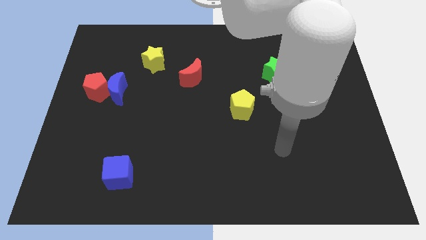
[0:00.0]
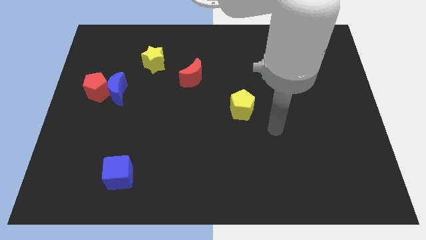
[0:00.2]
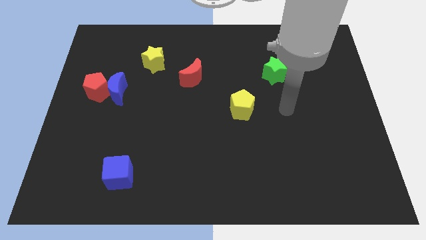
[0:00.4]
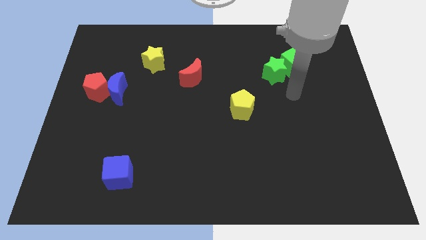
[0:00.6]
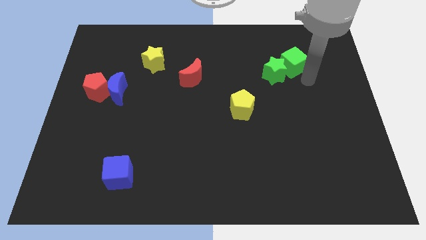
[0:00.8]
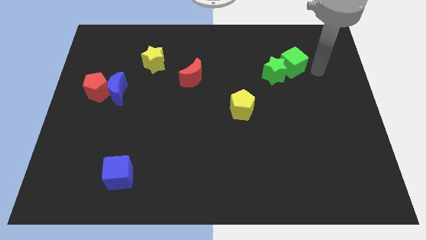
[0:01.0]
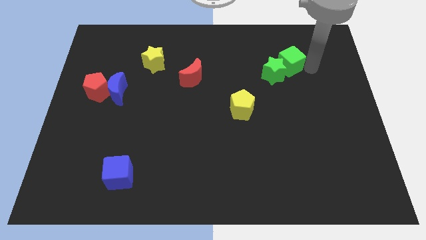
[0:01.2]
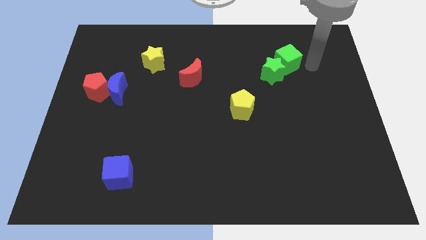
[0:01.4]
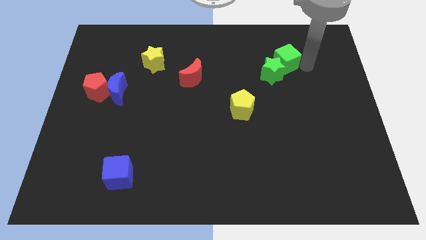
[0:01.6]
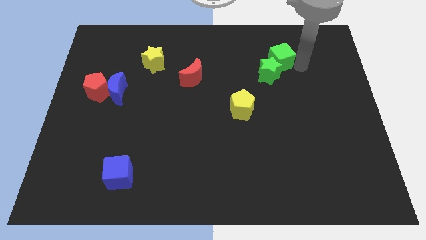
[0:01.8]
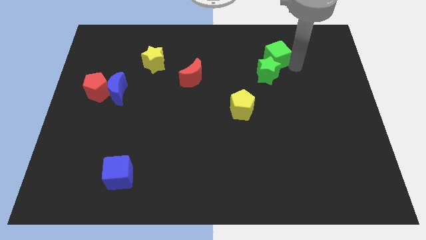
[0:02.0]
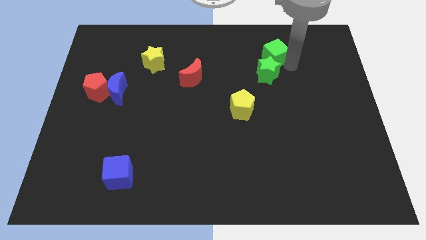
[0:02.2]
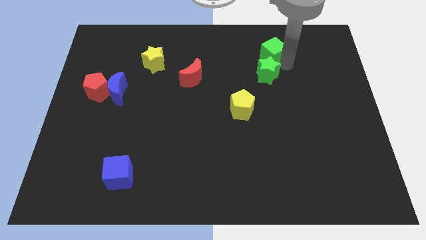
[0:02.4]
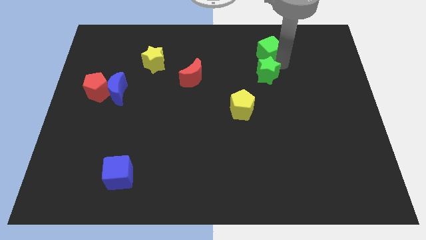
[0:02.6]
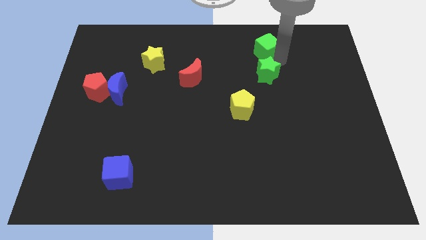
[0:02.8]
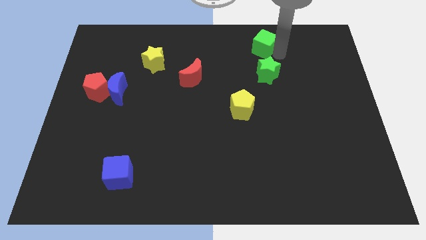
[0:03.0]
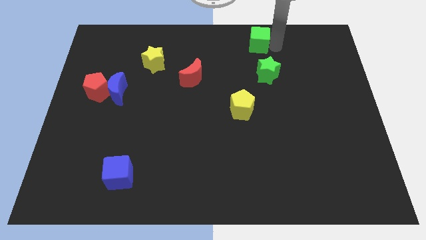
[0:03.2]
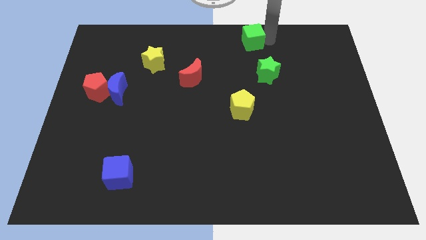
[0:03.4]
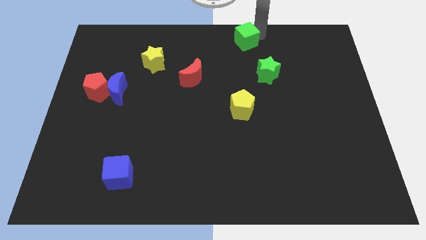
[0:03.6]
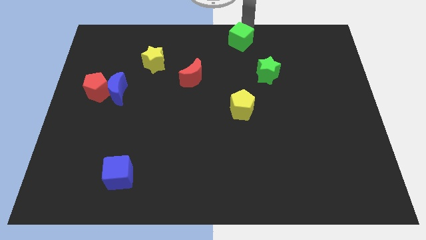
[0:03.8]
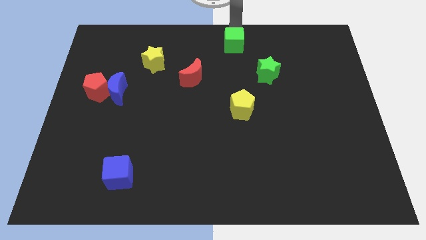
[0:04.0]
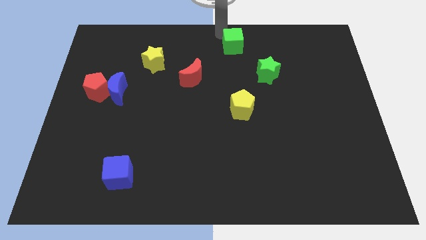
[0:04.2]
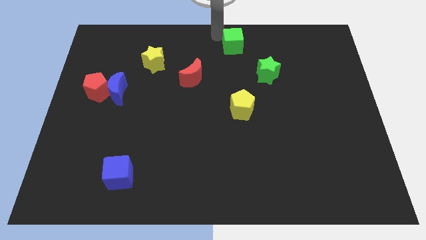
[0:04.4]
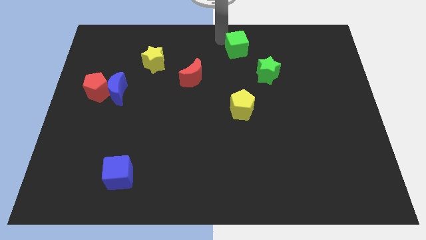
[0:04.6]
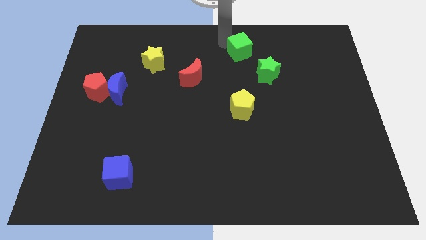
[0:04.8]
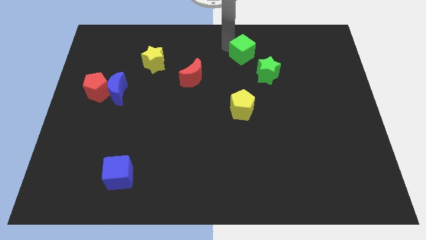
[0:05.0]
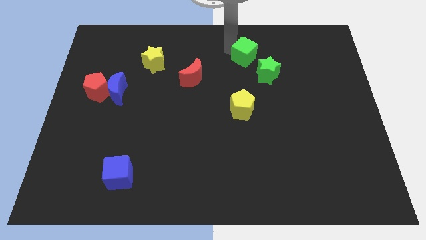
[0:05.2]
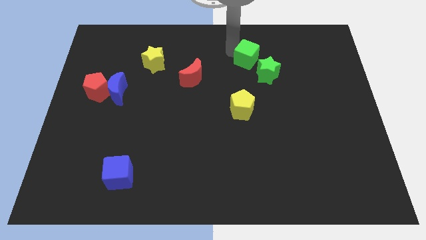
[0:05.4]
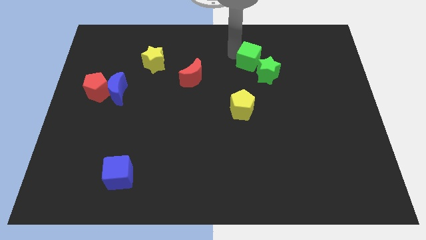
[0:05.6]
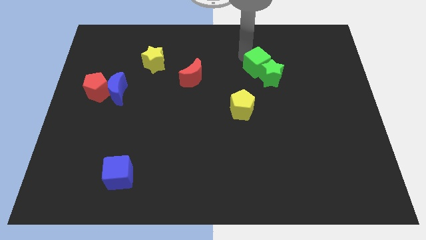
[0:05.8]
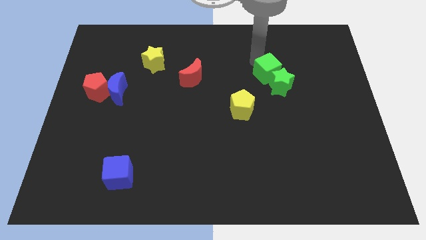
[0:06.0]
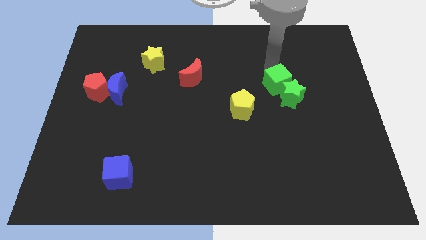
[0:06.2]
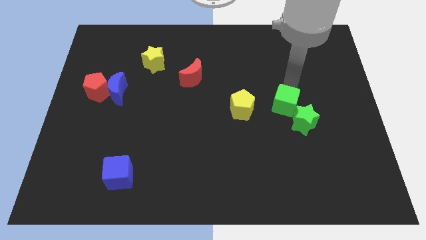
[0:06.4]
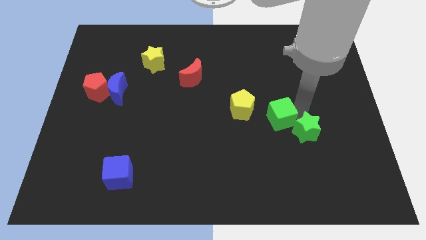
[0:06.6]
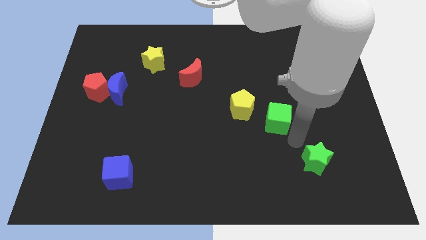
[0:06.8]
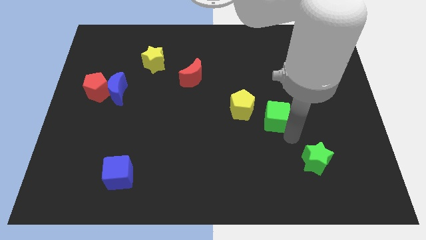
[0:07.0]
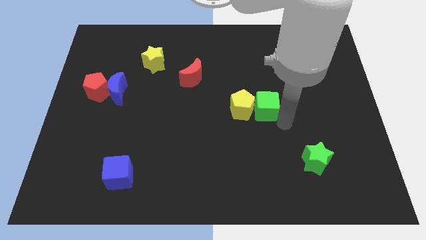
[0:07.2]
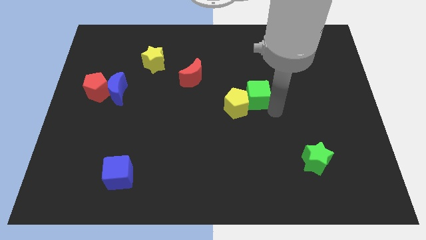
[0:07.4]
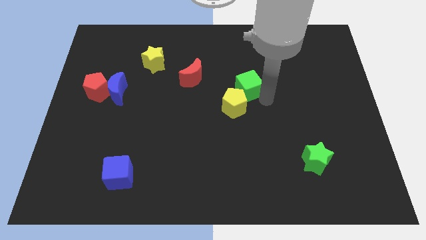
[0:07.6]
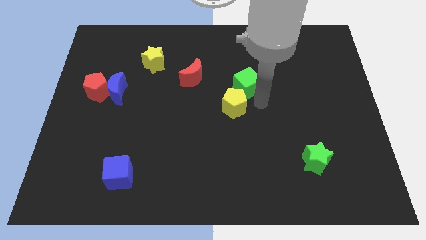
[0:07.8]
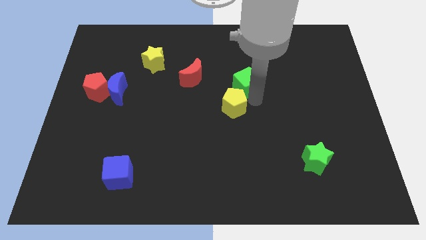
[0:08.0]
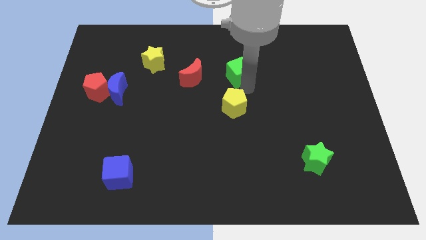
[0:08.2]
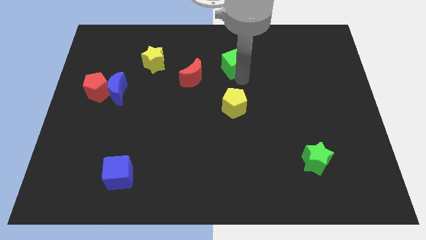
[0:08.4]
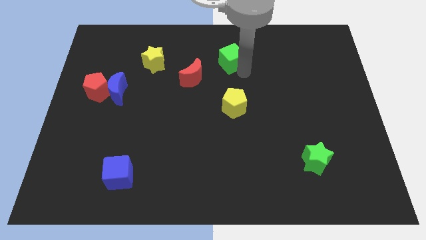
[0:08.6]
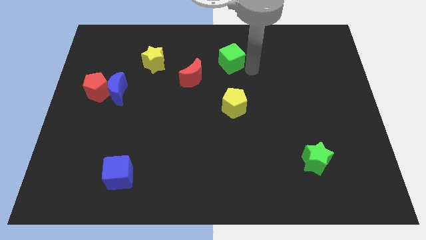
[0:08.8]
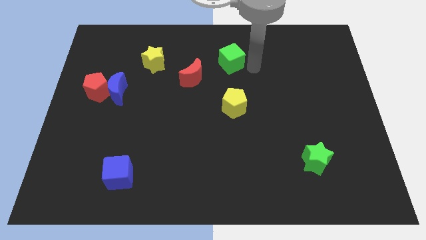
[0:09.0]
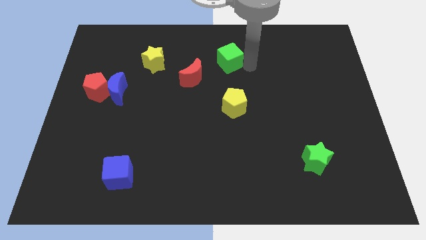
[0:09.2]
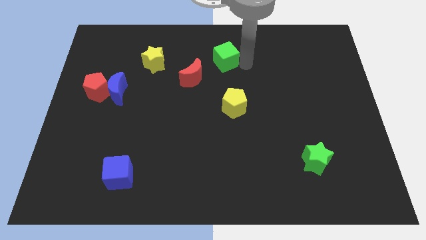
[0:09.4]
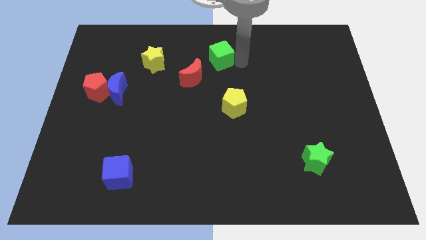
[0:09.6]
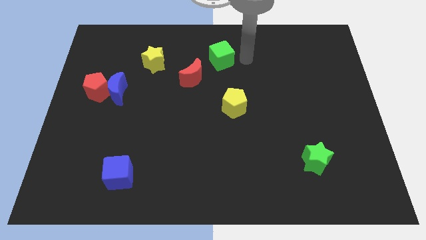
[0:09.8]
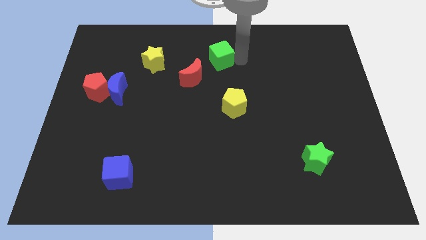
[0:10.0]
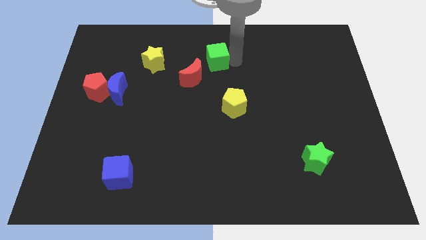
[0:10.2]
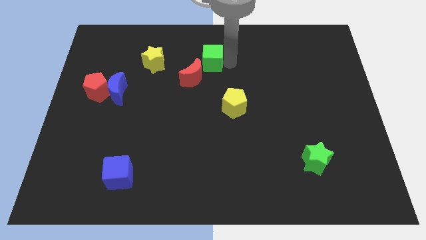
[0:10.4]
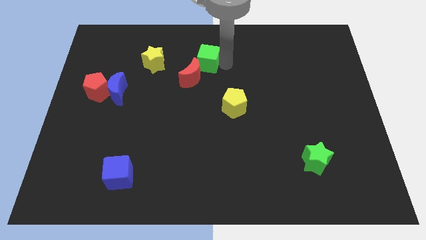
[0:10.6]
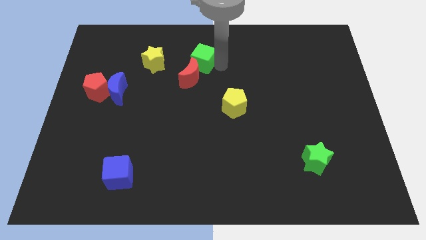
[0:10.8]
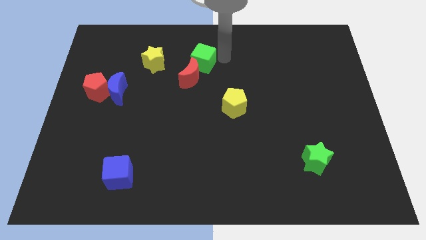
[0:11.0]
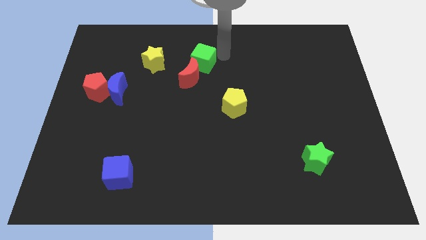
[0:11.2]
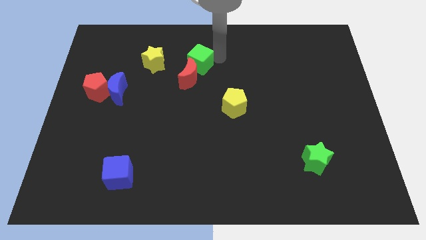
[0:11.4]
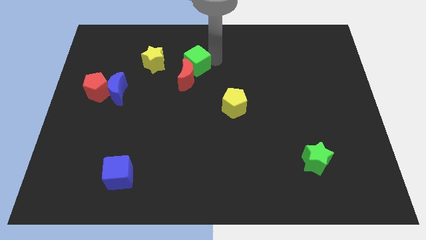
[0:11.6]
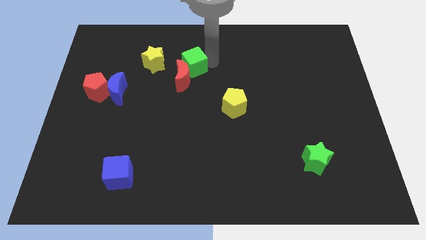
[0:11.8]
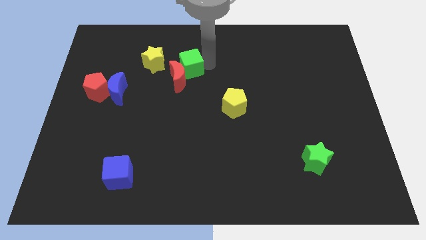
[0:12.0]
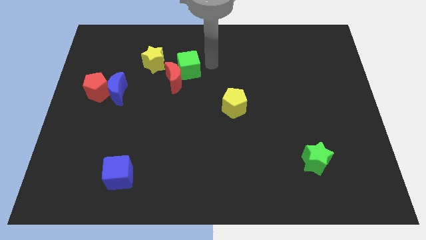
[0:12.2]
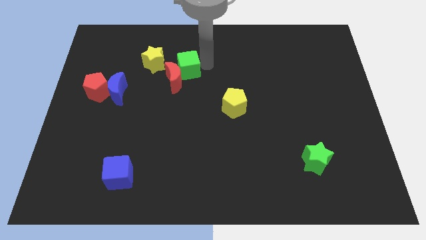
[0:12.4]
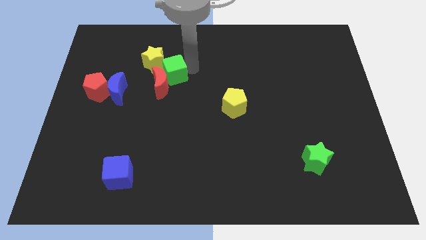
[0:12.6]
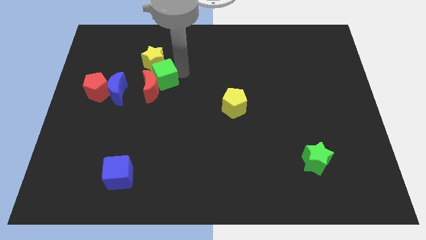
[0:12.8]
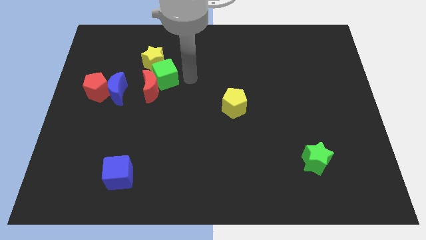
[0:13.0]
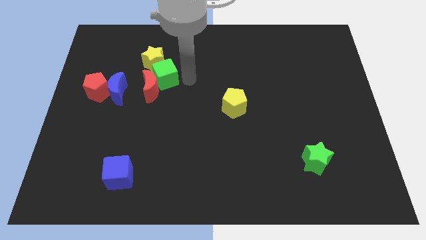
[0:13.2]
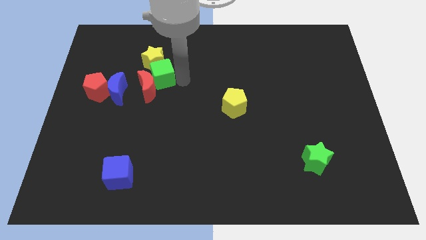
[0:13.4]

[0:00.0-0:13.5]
put the green cube to the top right side of the blue moon
